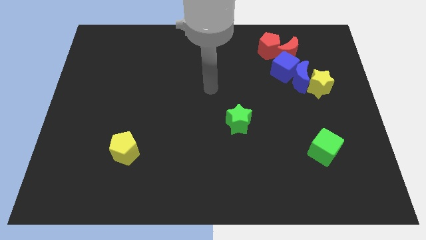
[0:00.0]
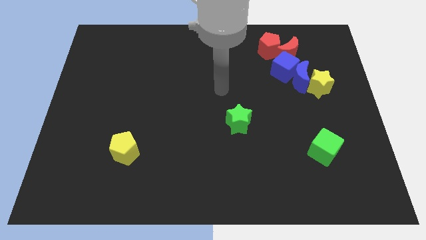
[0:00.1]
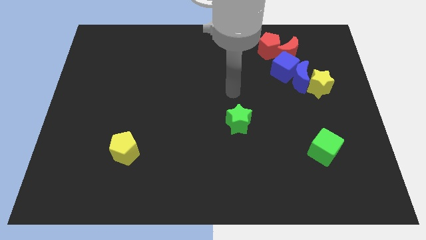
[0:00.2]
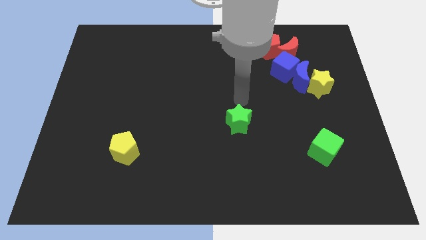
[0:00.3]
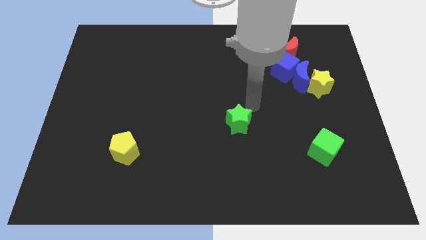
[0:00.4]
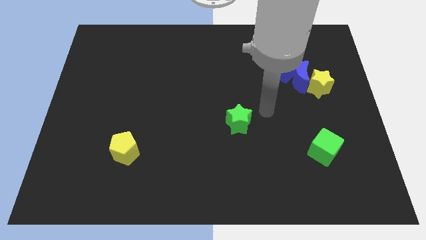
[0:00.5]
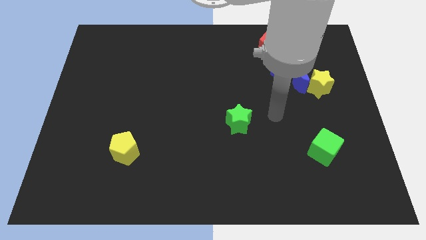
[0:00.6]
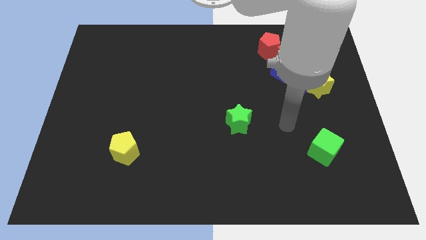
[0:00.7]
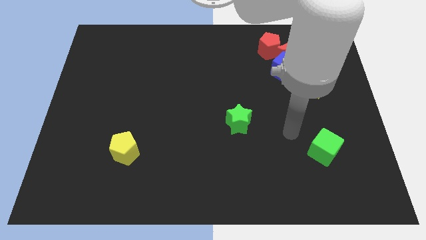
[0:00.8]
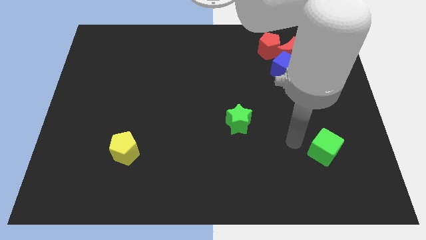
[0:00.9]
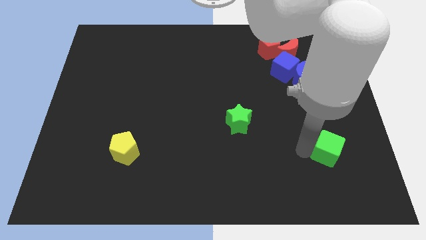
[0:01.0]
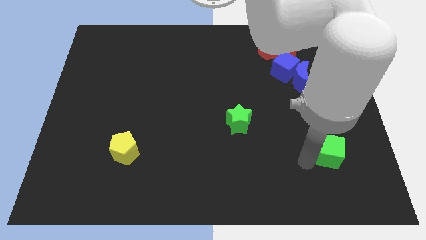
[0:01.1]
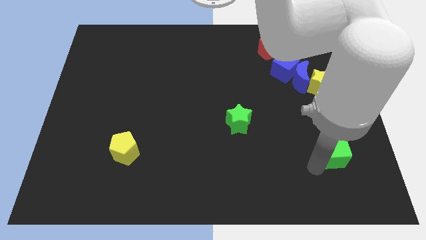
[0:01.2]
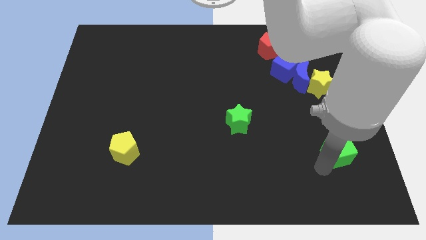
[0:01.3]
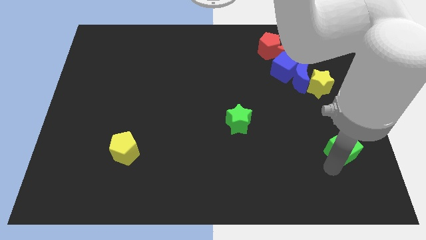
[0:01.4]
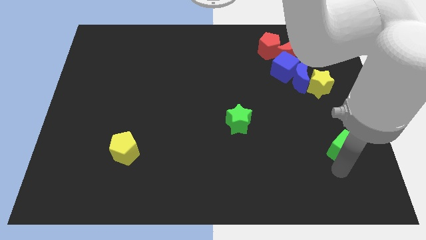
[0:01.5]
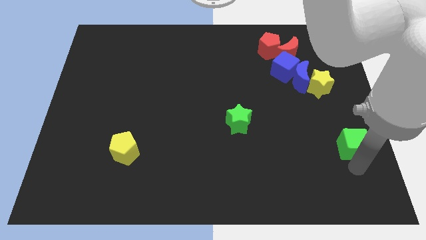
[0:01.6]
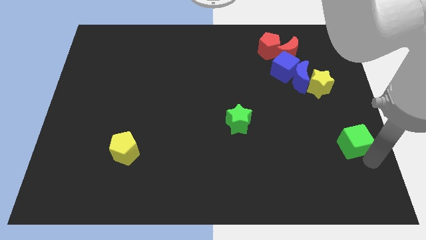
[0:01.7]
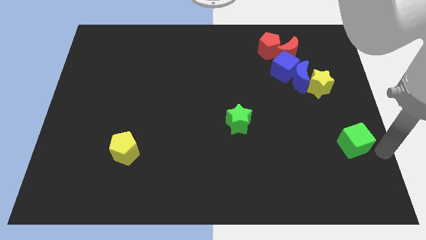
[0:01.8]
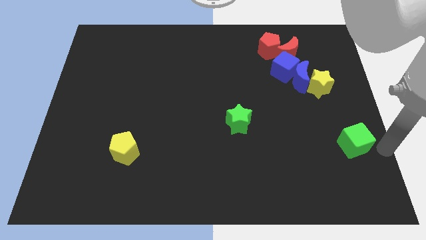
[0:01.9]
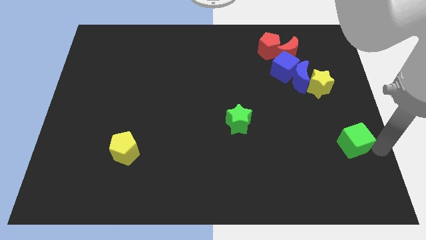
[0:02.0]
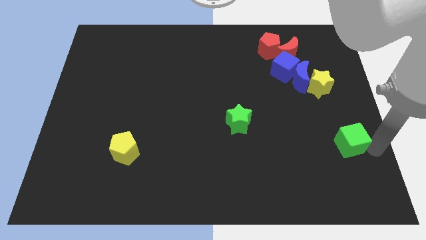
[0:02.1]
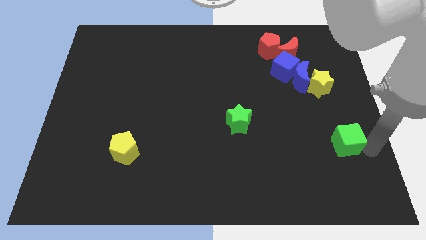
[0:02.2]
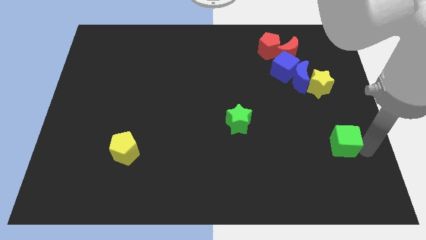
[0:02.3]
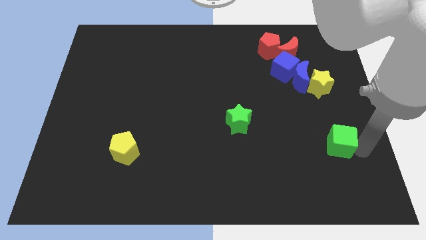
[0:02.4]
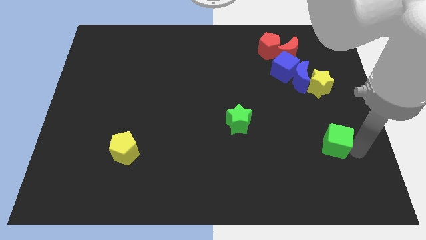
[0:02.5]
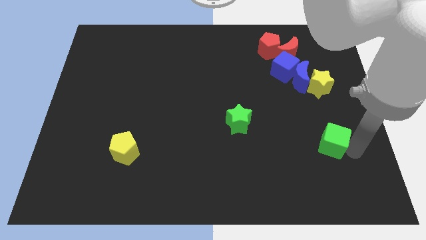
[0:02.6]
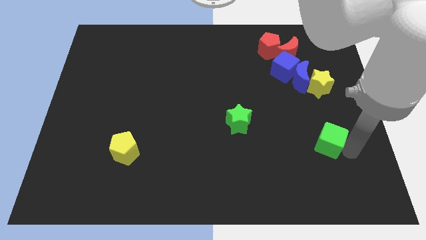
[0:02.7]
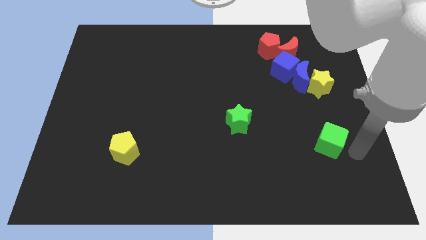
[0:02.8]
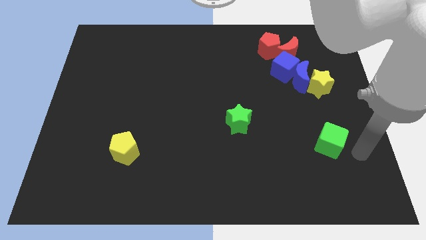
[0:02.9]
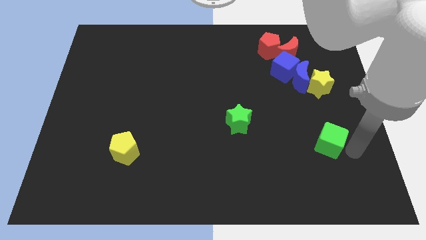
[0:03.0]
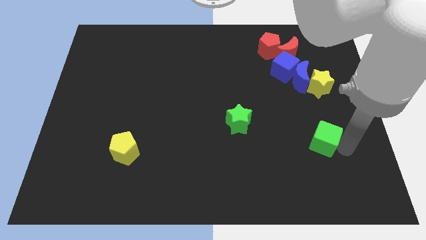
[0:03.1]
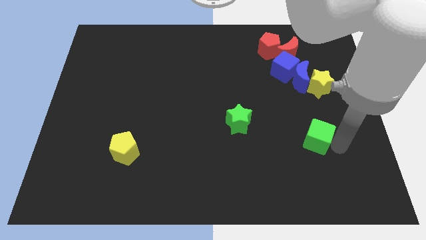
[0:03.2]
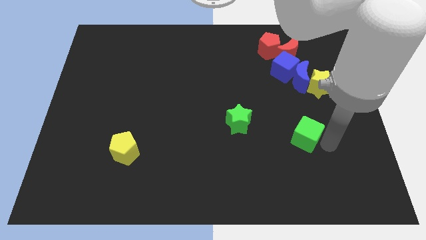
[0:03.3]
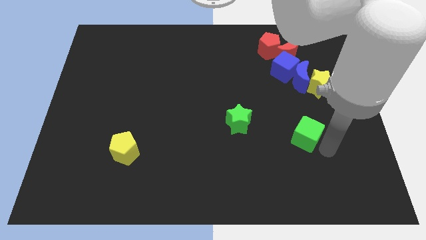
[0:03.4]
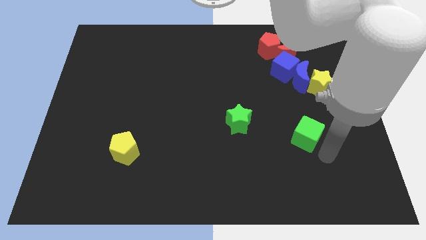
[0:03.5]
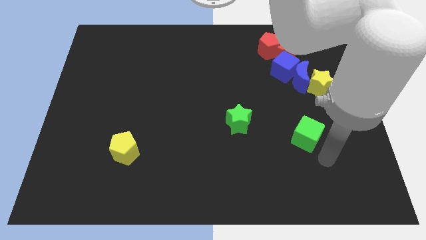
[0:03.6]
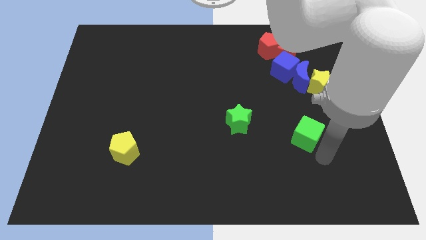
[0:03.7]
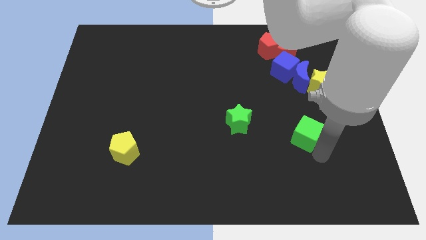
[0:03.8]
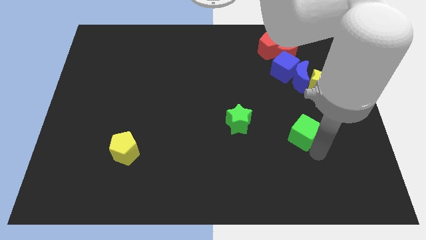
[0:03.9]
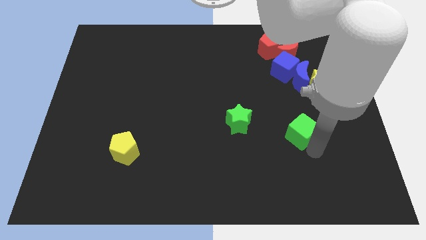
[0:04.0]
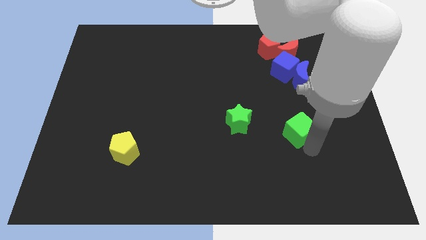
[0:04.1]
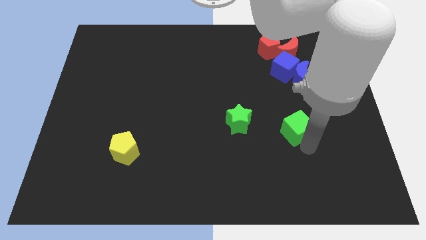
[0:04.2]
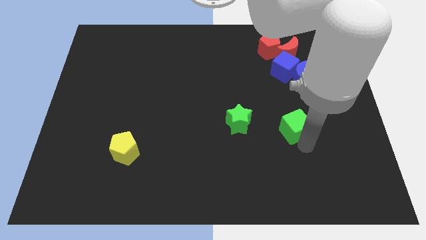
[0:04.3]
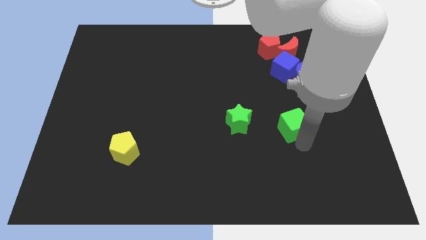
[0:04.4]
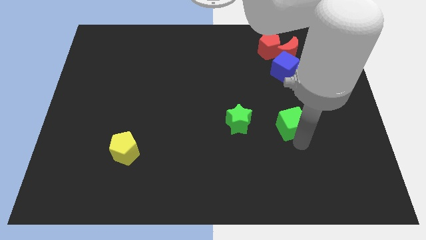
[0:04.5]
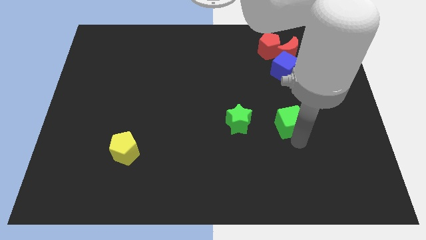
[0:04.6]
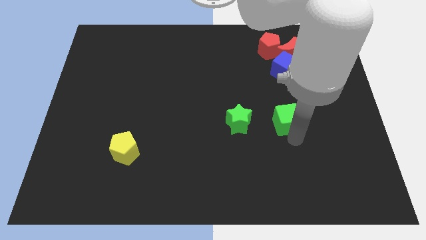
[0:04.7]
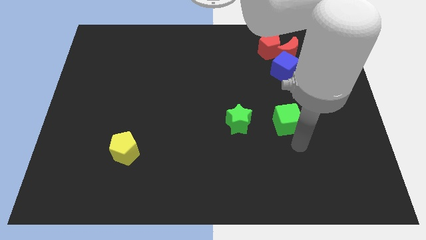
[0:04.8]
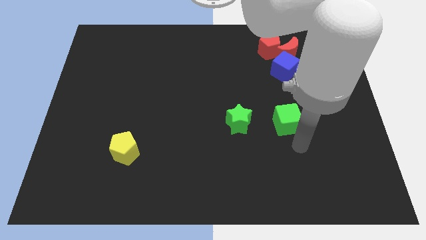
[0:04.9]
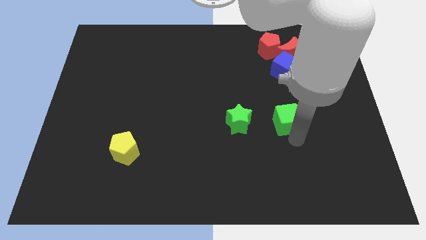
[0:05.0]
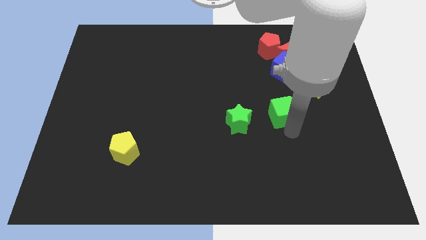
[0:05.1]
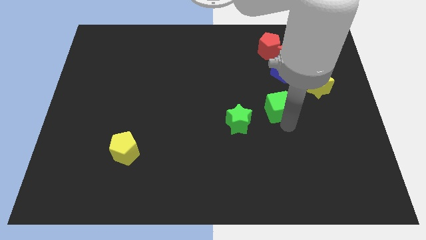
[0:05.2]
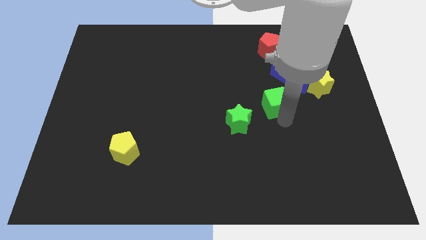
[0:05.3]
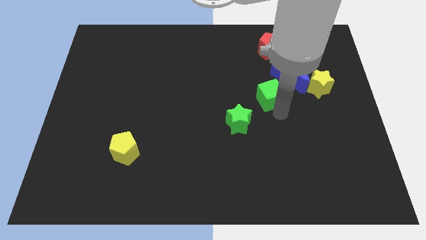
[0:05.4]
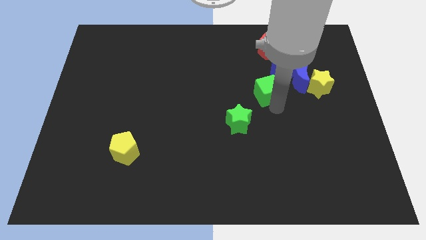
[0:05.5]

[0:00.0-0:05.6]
put the green cube left of the blue moon

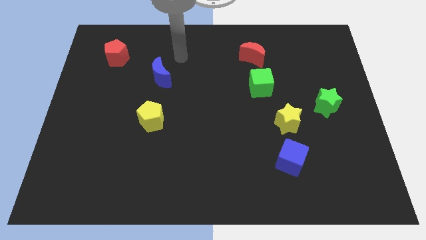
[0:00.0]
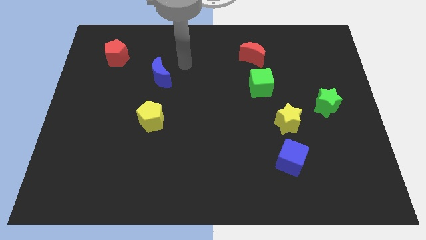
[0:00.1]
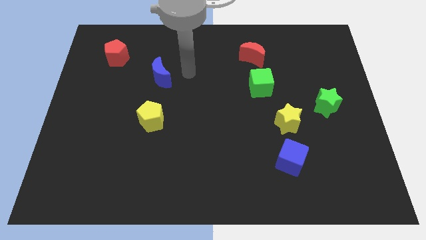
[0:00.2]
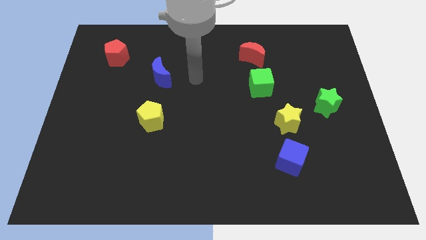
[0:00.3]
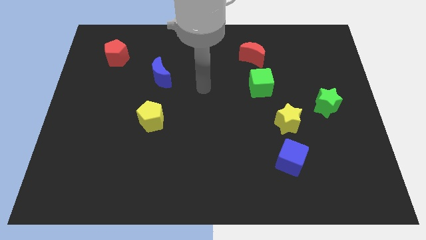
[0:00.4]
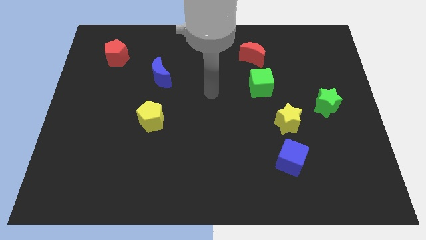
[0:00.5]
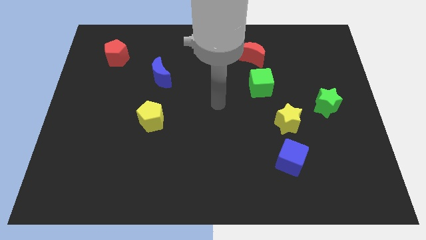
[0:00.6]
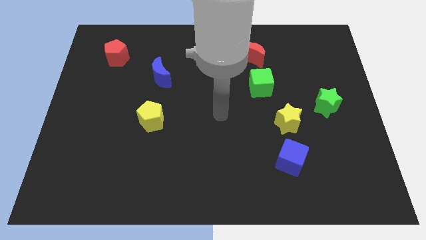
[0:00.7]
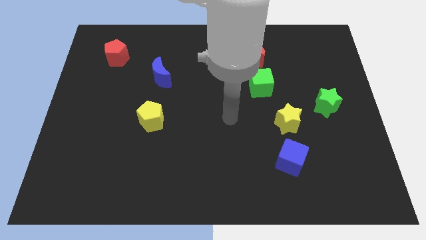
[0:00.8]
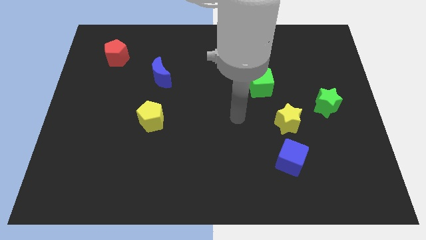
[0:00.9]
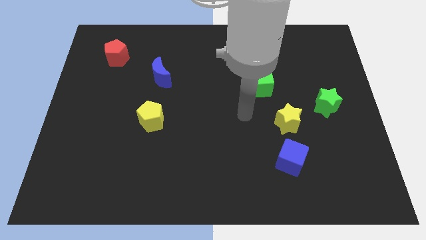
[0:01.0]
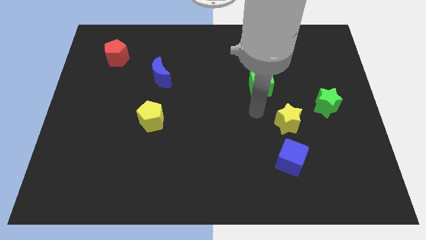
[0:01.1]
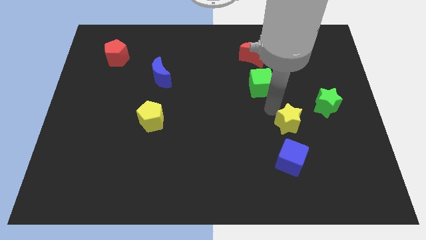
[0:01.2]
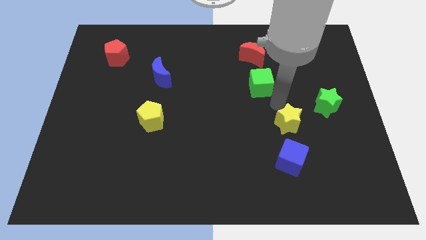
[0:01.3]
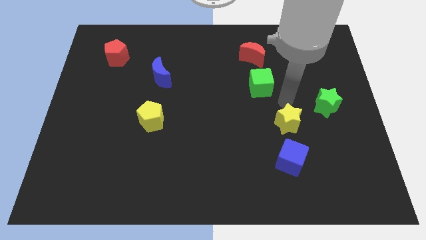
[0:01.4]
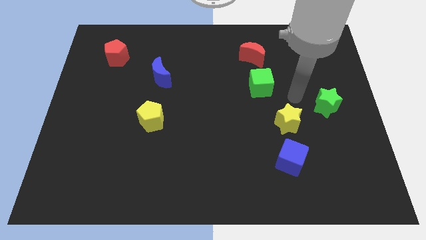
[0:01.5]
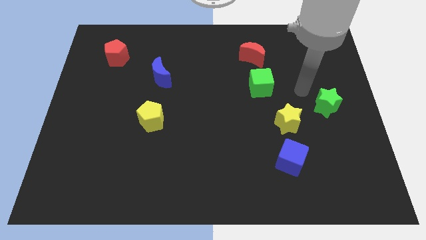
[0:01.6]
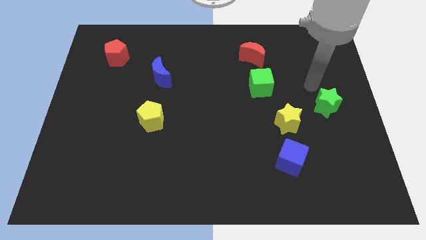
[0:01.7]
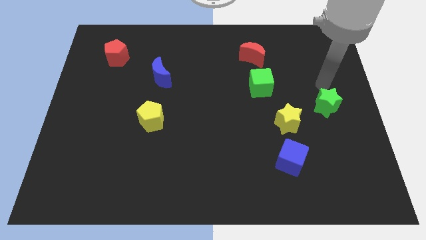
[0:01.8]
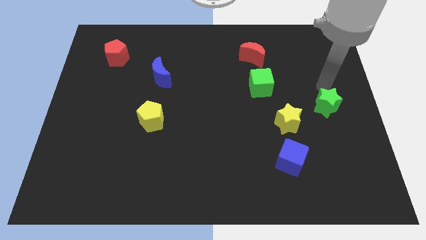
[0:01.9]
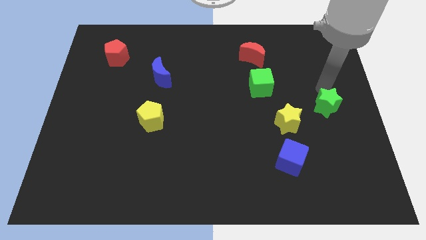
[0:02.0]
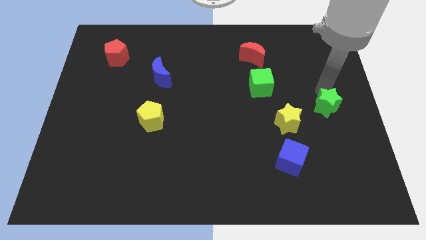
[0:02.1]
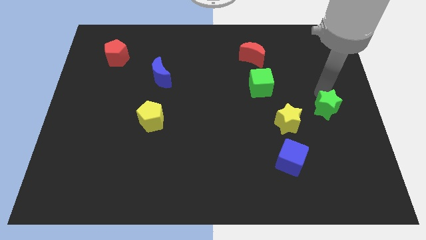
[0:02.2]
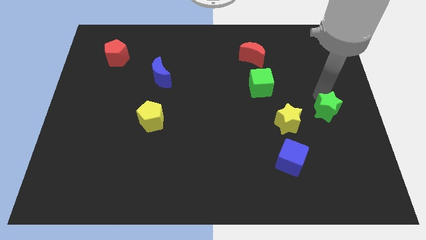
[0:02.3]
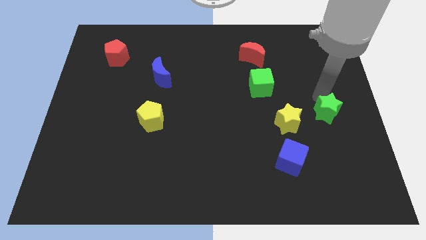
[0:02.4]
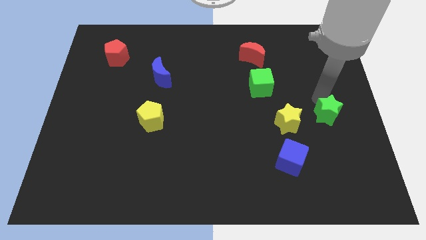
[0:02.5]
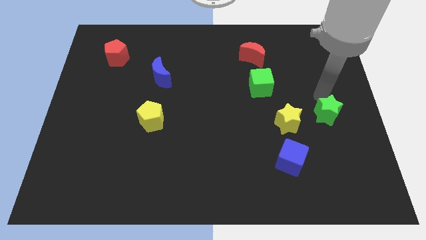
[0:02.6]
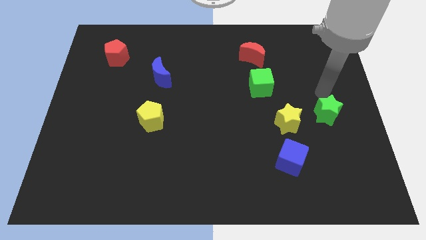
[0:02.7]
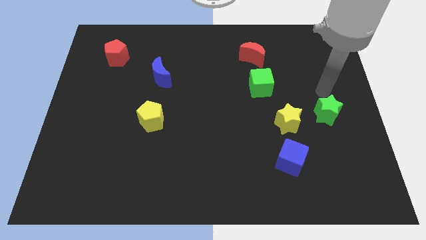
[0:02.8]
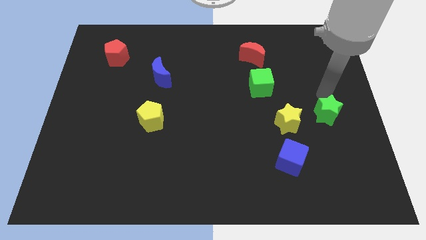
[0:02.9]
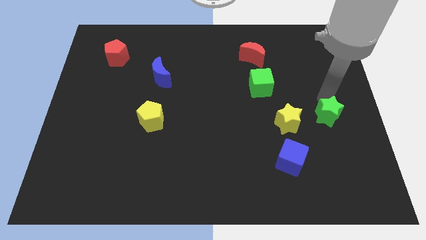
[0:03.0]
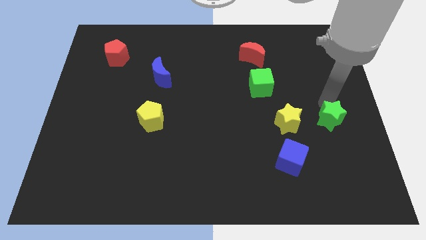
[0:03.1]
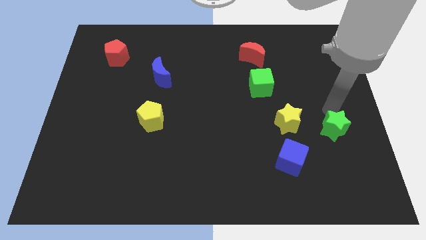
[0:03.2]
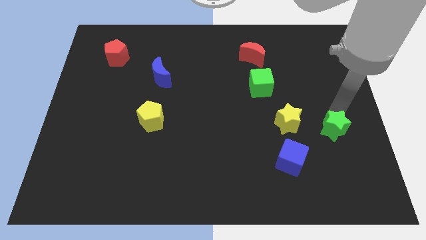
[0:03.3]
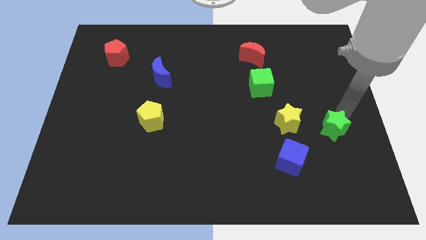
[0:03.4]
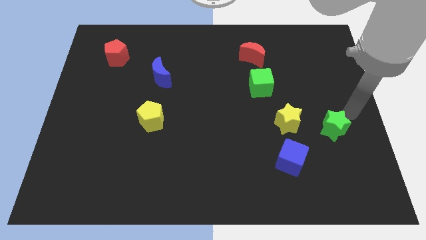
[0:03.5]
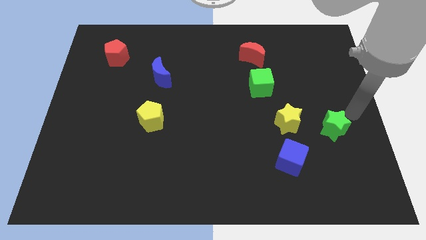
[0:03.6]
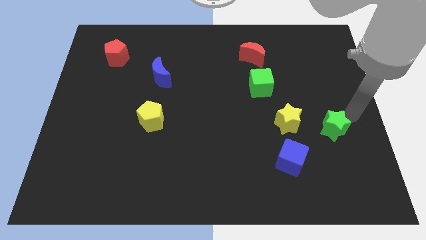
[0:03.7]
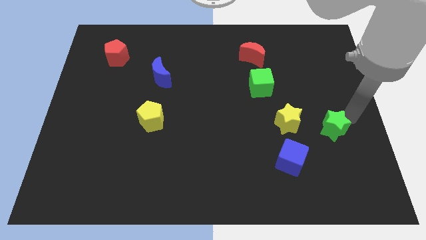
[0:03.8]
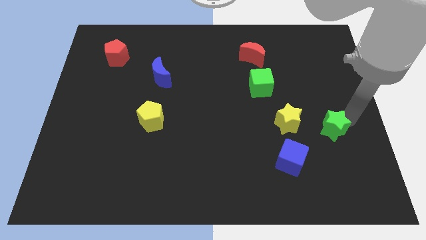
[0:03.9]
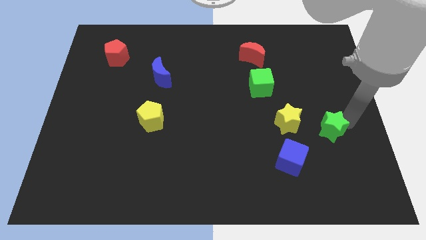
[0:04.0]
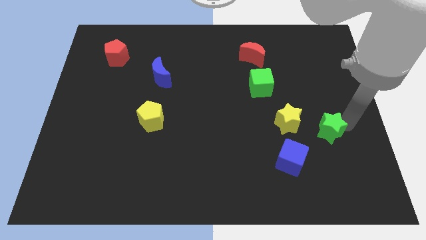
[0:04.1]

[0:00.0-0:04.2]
push the green star to the bottom right side of the yellow star
